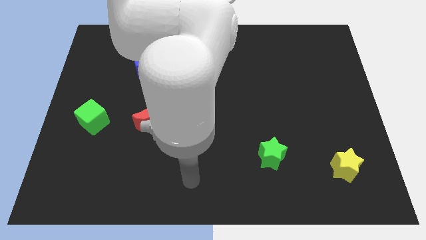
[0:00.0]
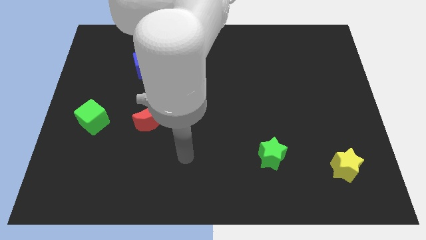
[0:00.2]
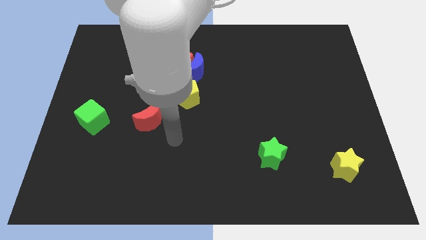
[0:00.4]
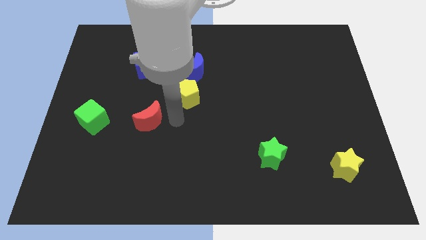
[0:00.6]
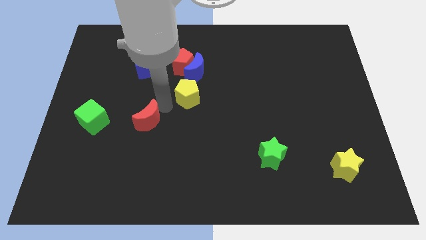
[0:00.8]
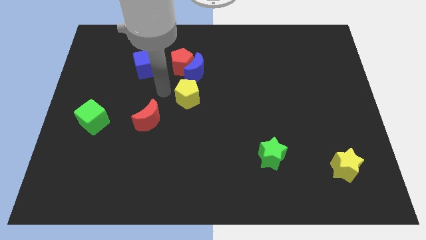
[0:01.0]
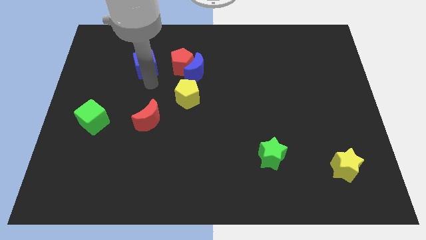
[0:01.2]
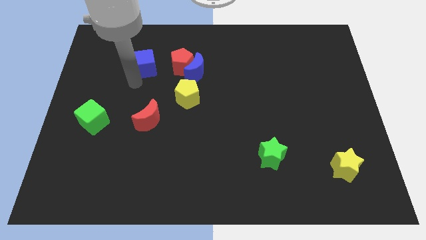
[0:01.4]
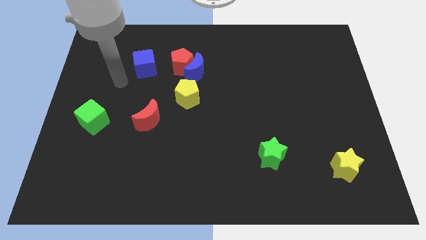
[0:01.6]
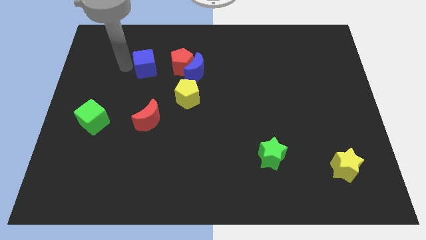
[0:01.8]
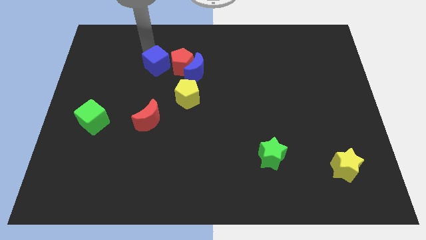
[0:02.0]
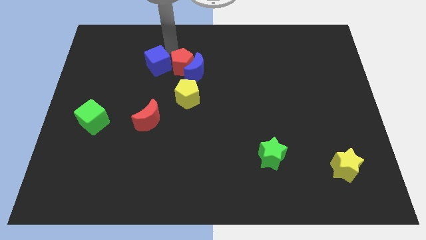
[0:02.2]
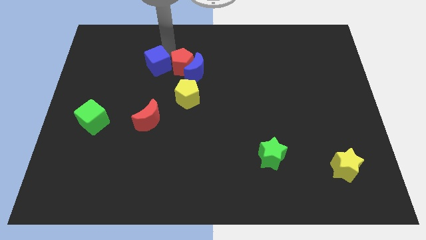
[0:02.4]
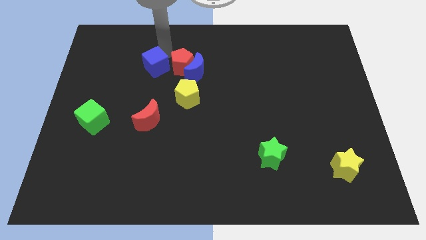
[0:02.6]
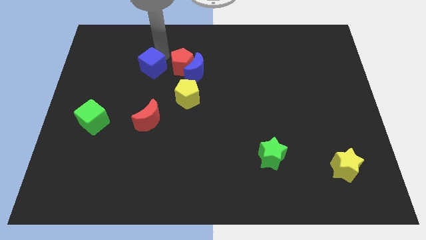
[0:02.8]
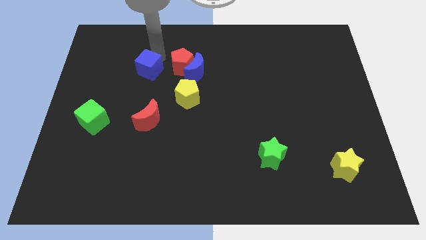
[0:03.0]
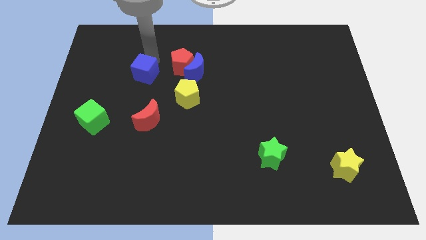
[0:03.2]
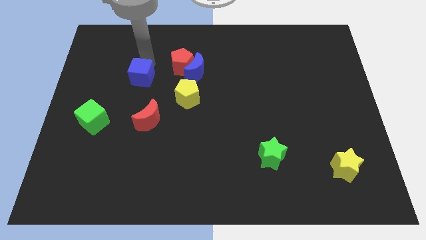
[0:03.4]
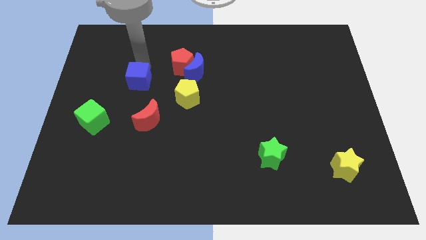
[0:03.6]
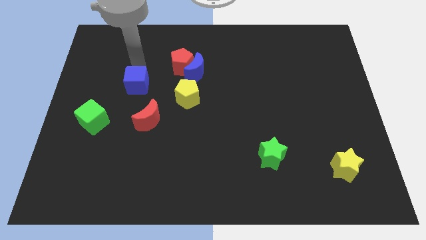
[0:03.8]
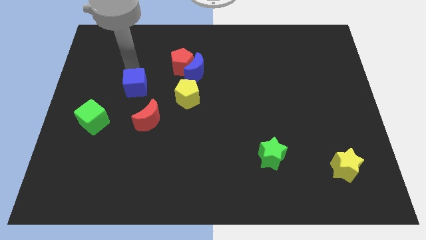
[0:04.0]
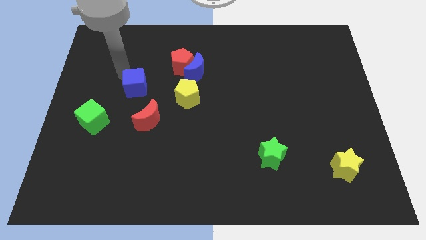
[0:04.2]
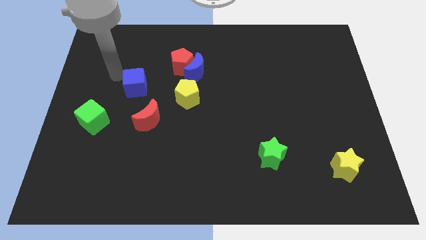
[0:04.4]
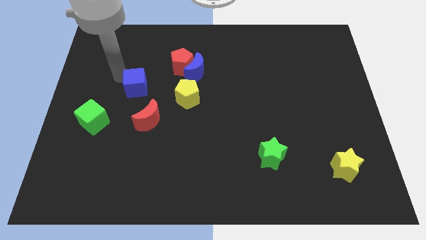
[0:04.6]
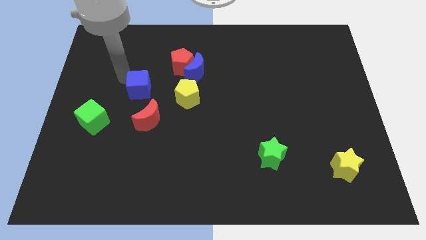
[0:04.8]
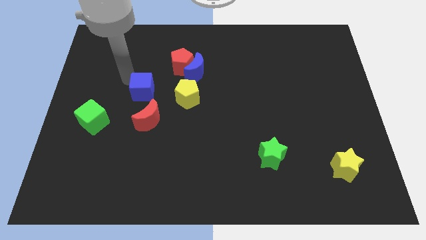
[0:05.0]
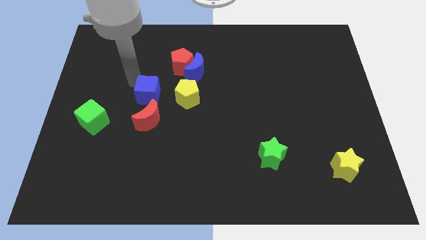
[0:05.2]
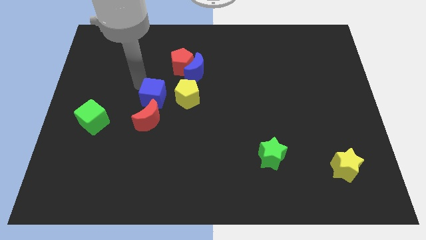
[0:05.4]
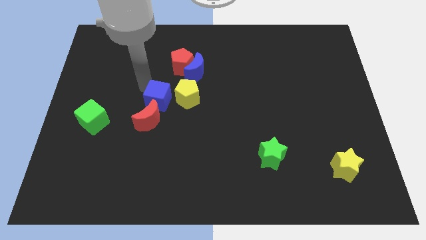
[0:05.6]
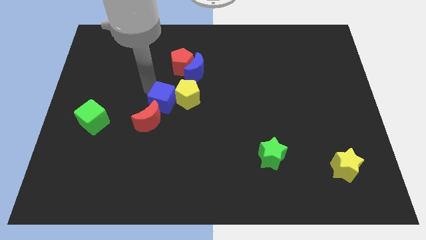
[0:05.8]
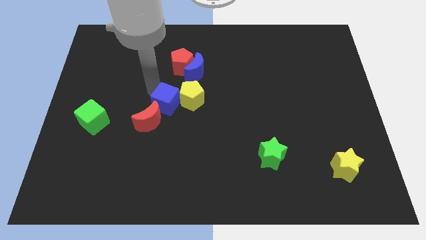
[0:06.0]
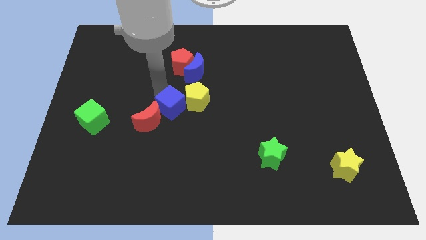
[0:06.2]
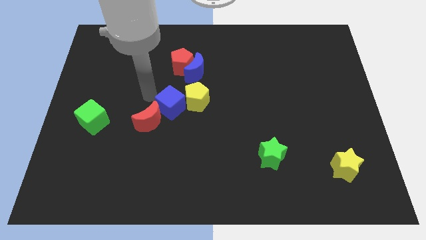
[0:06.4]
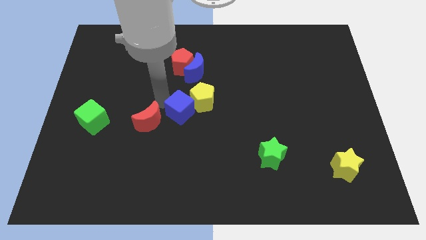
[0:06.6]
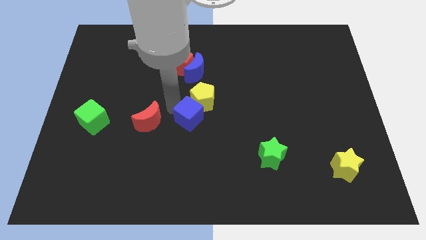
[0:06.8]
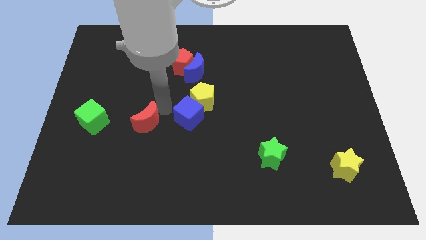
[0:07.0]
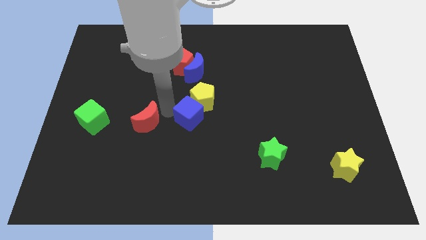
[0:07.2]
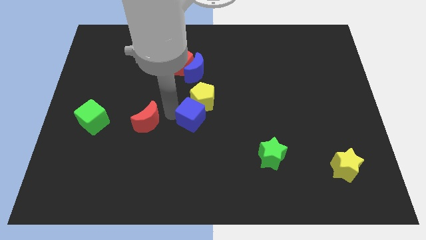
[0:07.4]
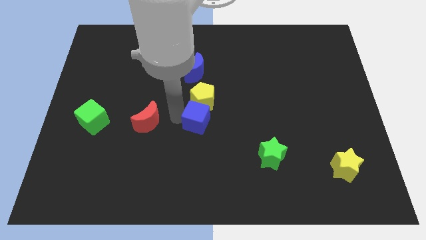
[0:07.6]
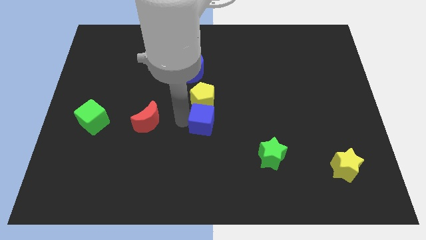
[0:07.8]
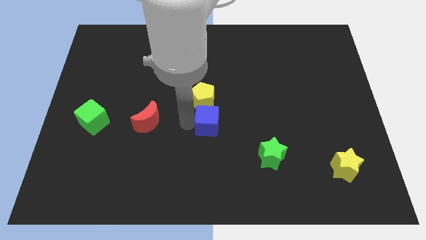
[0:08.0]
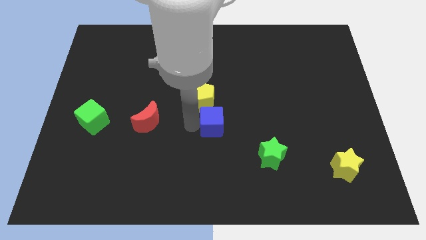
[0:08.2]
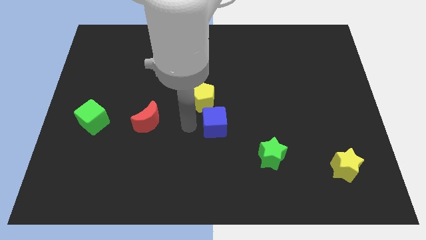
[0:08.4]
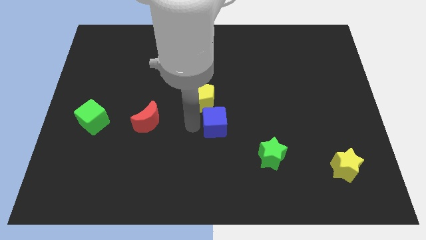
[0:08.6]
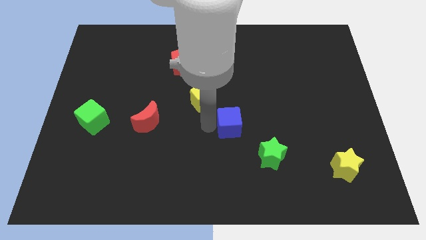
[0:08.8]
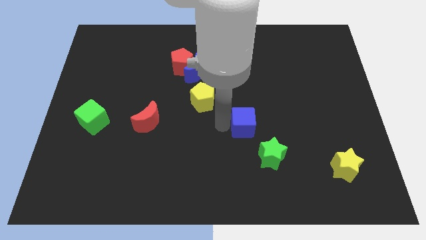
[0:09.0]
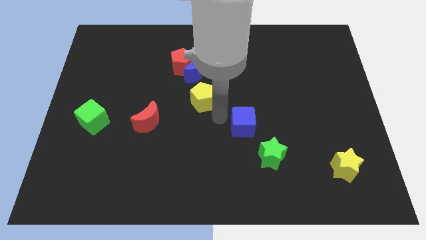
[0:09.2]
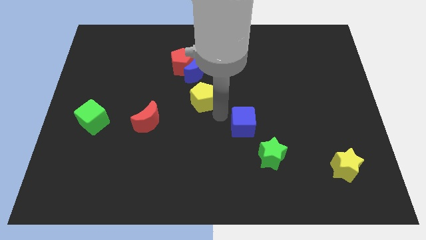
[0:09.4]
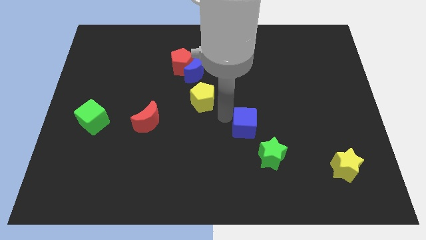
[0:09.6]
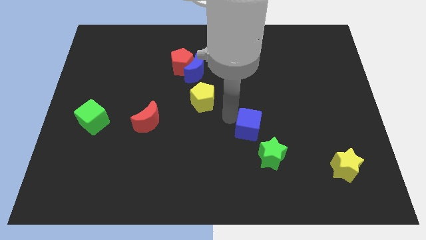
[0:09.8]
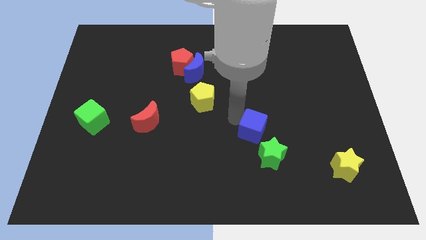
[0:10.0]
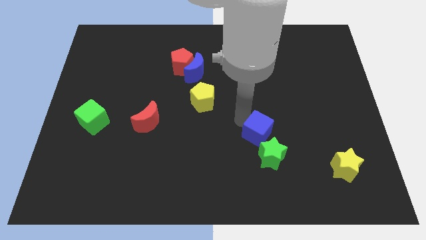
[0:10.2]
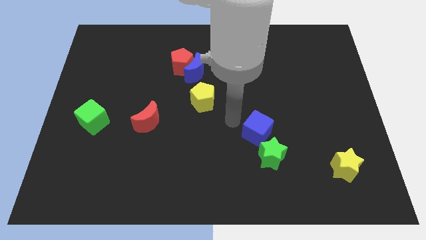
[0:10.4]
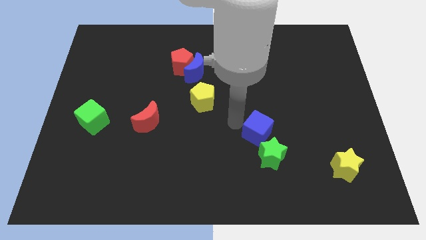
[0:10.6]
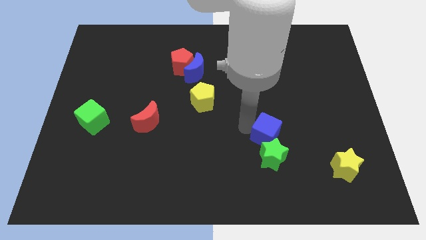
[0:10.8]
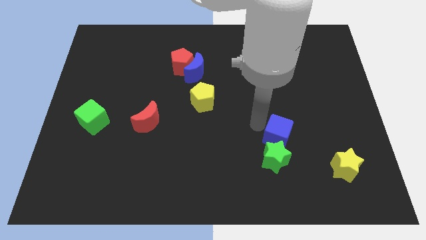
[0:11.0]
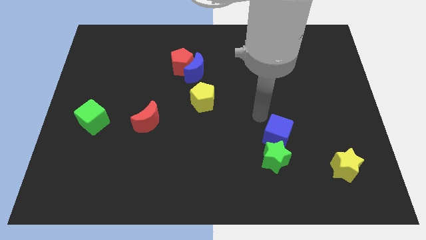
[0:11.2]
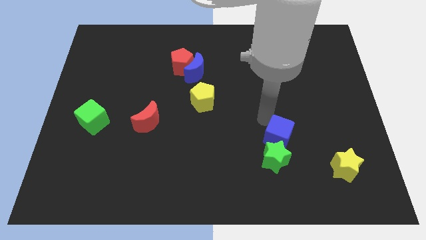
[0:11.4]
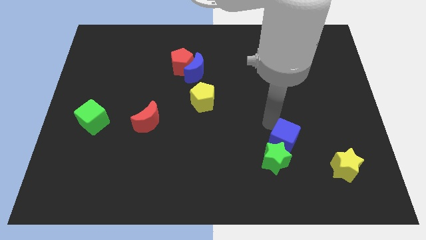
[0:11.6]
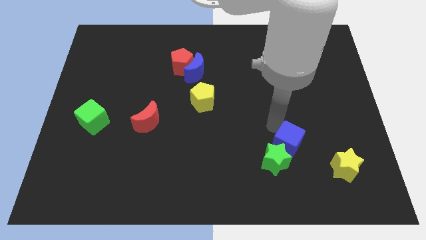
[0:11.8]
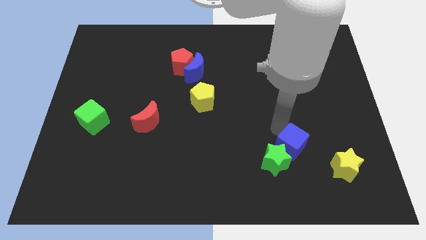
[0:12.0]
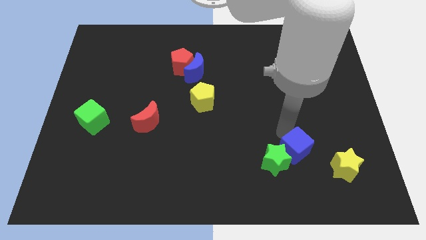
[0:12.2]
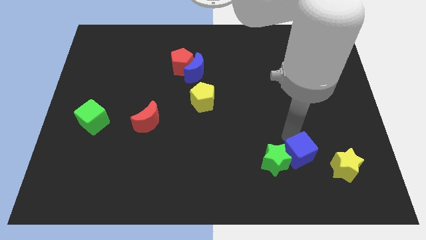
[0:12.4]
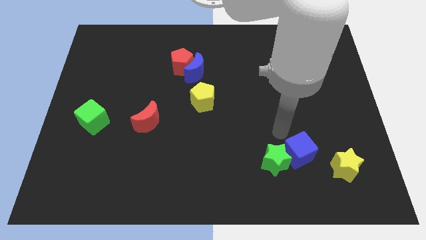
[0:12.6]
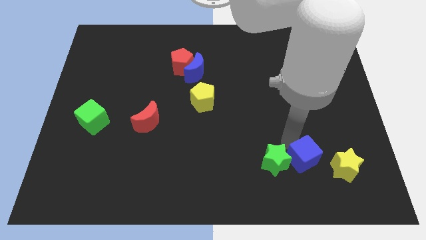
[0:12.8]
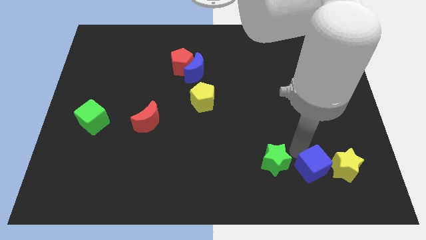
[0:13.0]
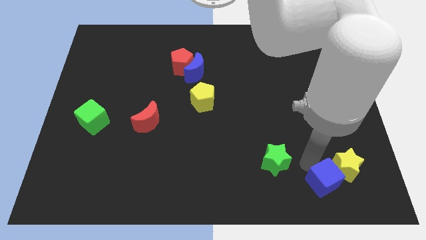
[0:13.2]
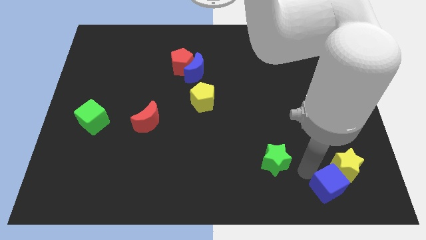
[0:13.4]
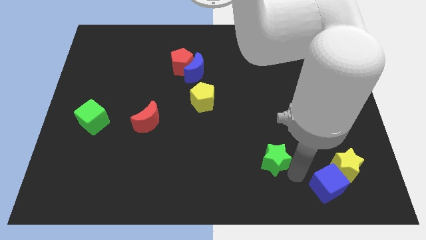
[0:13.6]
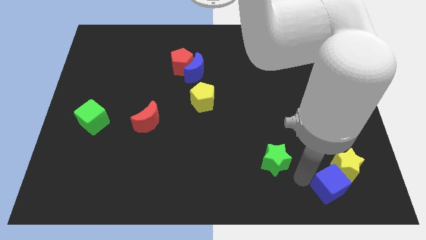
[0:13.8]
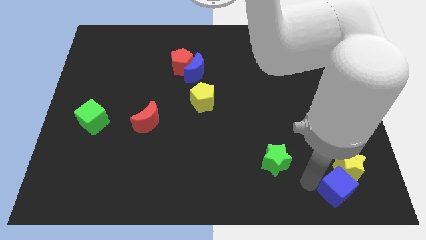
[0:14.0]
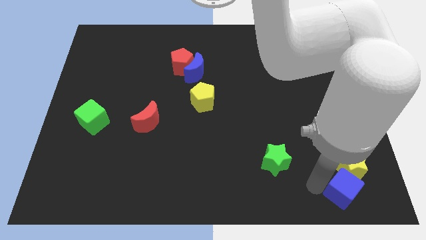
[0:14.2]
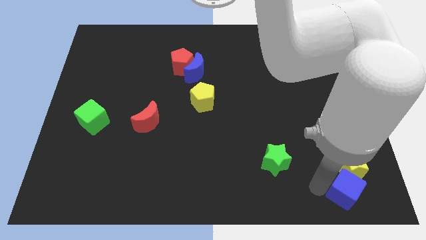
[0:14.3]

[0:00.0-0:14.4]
put the blue cube to the bottom right of the board
